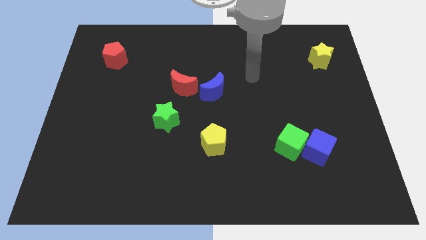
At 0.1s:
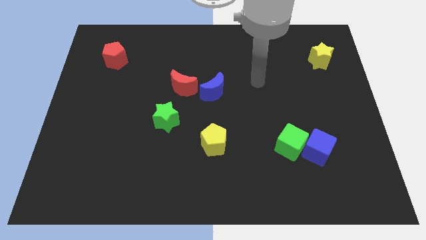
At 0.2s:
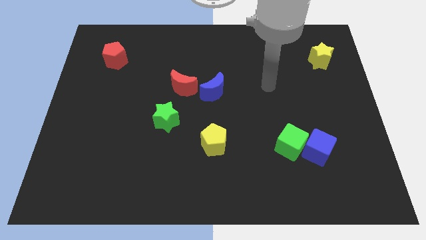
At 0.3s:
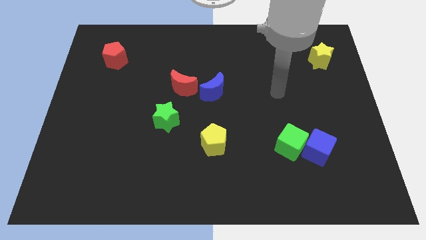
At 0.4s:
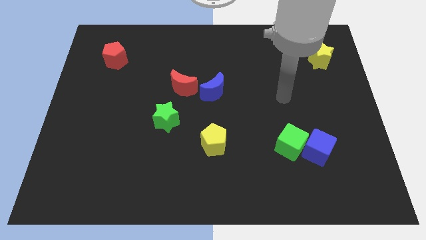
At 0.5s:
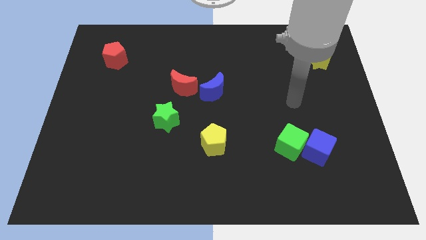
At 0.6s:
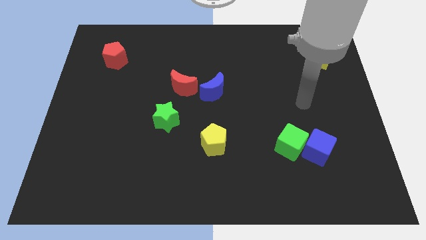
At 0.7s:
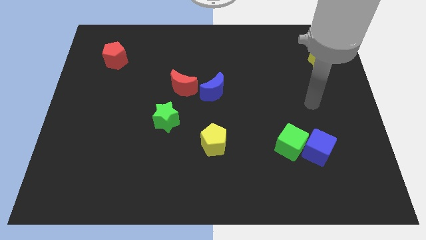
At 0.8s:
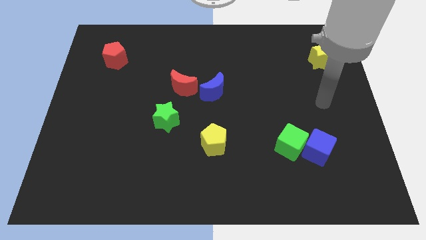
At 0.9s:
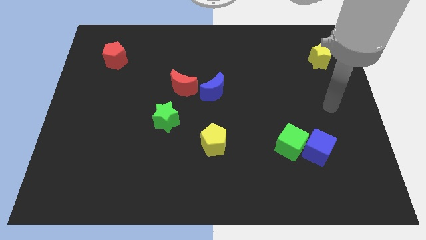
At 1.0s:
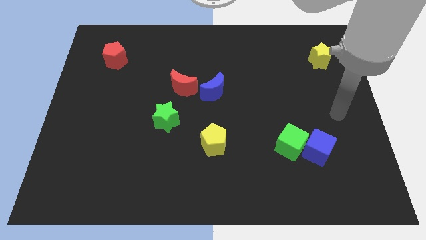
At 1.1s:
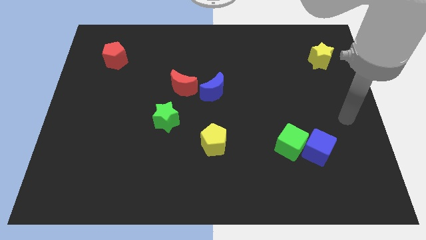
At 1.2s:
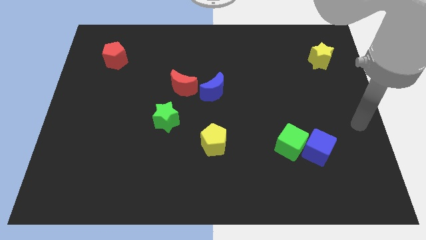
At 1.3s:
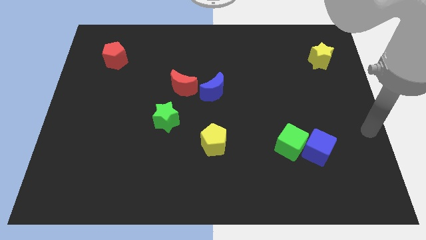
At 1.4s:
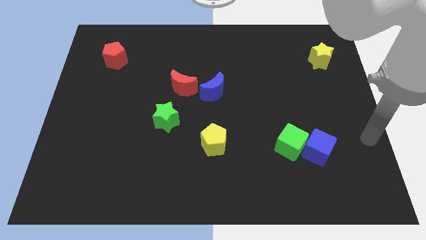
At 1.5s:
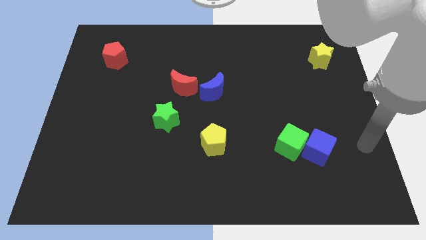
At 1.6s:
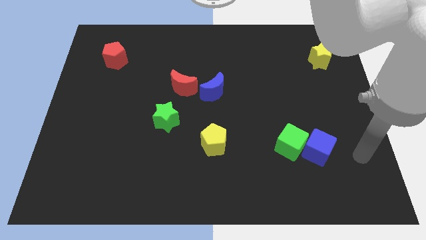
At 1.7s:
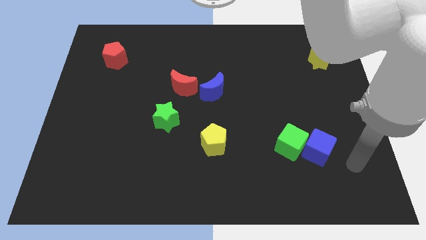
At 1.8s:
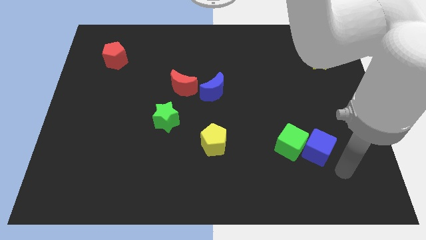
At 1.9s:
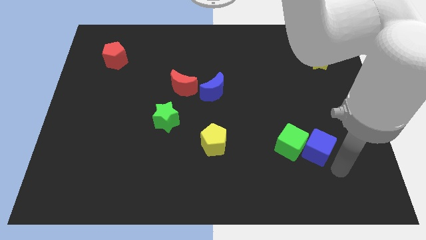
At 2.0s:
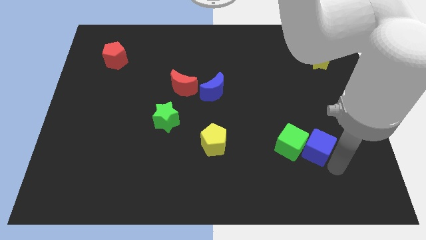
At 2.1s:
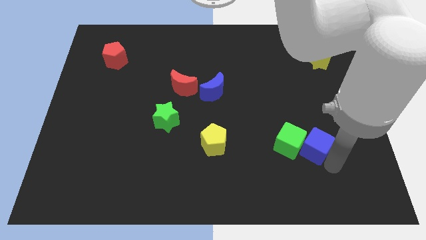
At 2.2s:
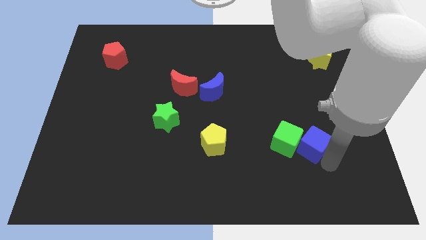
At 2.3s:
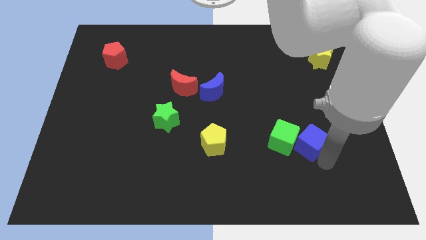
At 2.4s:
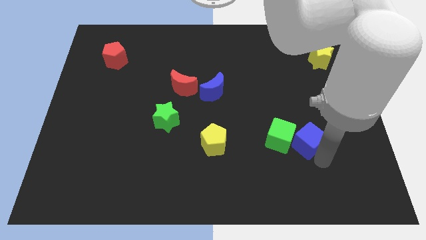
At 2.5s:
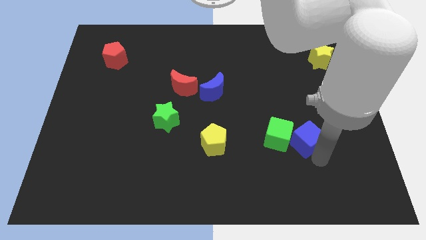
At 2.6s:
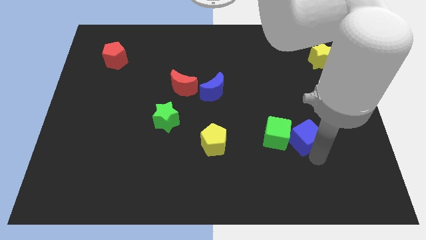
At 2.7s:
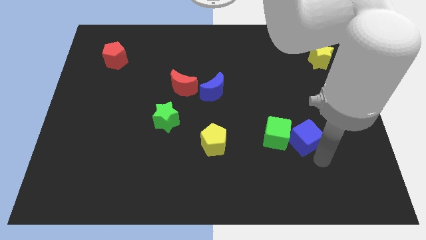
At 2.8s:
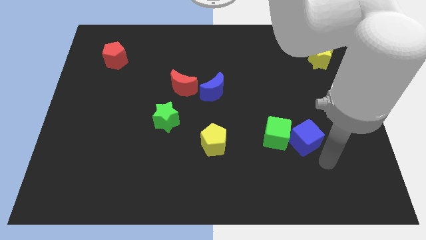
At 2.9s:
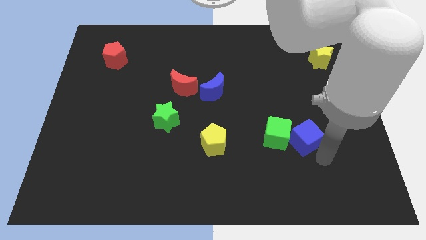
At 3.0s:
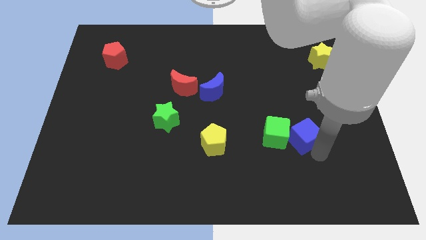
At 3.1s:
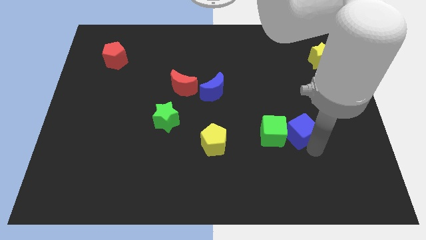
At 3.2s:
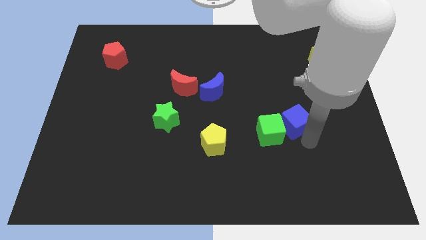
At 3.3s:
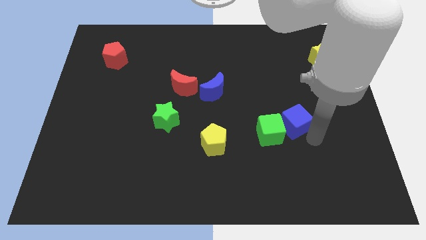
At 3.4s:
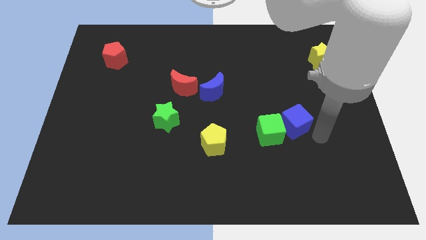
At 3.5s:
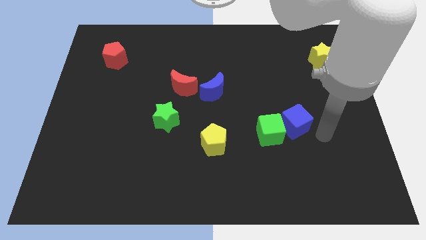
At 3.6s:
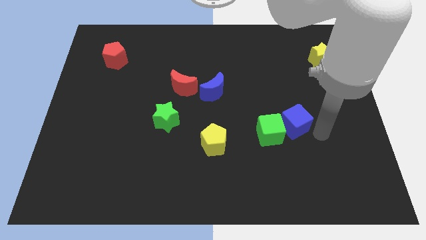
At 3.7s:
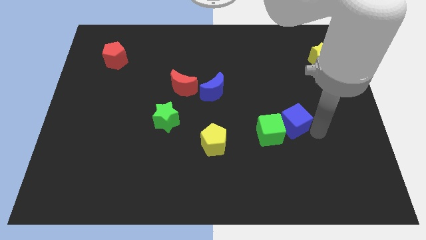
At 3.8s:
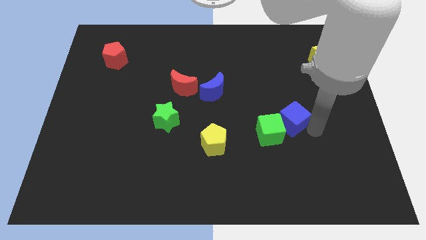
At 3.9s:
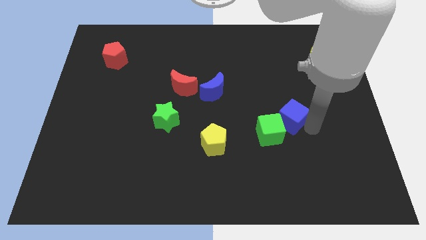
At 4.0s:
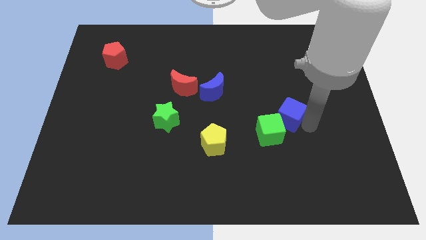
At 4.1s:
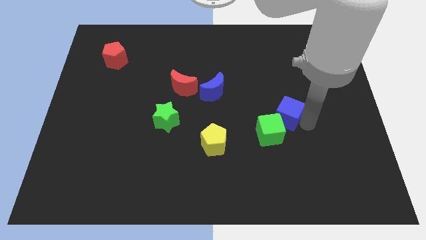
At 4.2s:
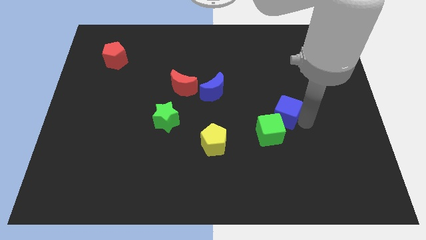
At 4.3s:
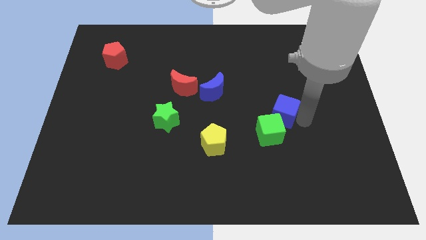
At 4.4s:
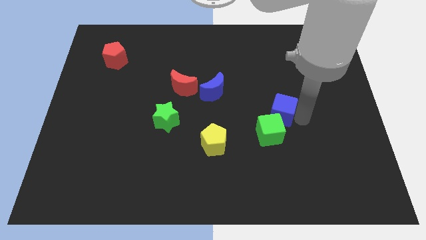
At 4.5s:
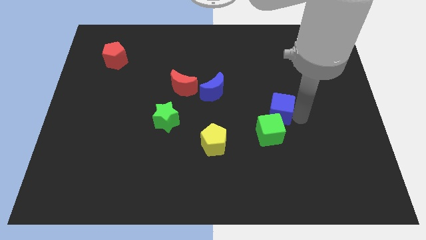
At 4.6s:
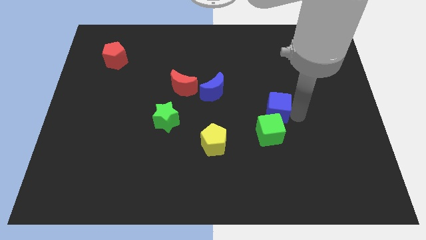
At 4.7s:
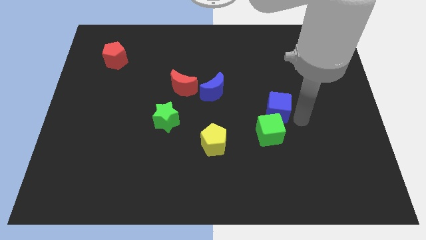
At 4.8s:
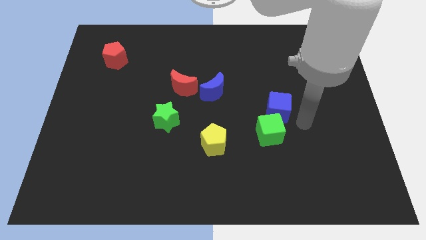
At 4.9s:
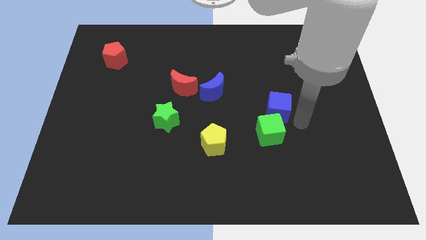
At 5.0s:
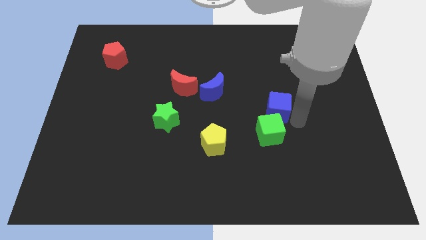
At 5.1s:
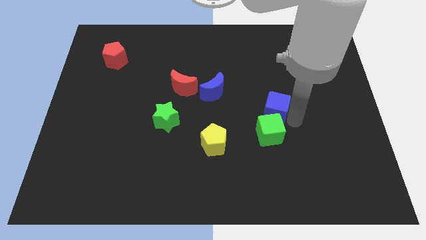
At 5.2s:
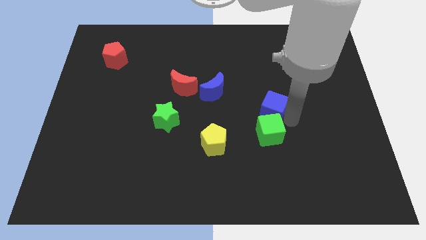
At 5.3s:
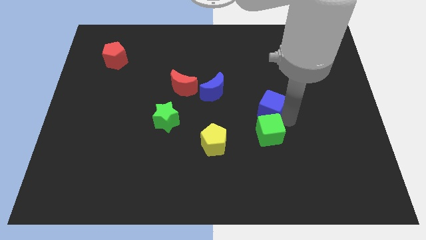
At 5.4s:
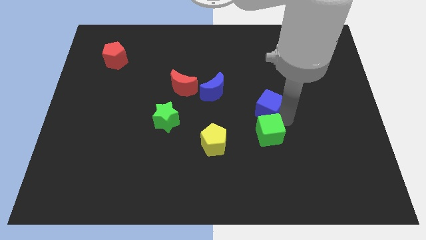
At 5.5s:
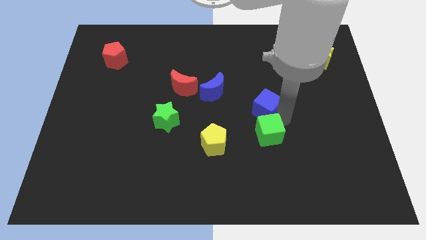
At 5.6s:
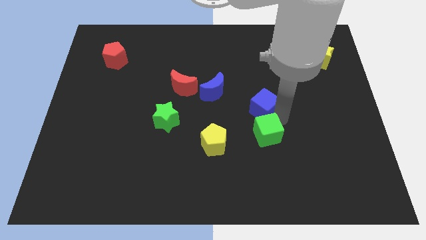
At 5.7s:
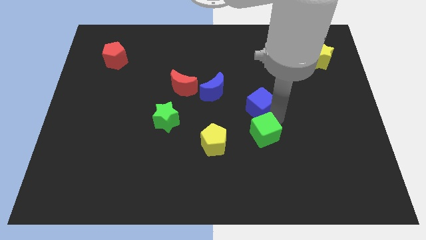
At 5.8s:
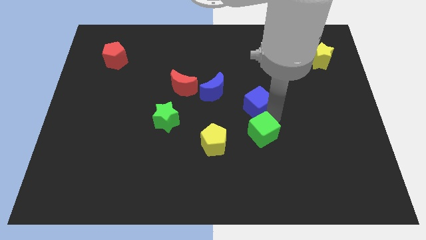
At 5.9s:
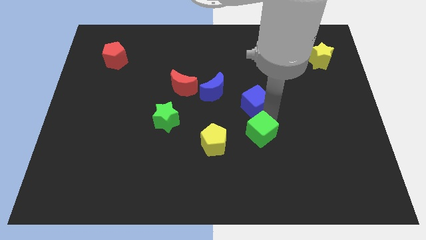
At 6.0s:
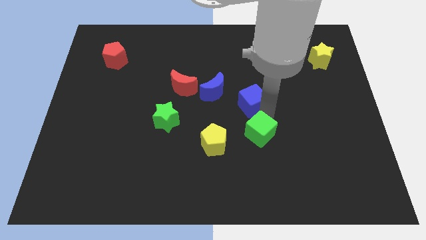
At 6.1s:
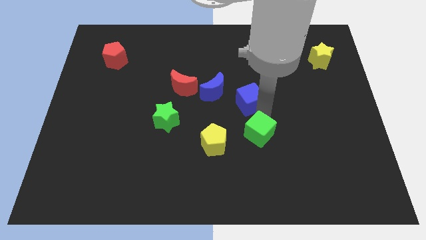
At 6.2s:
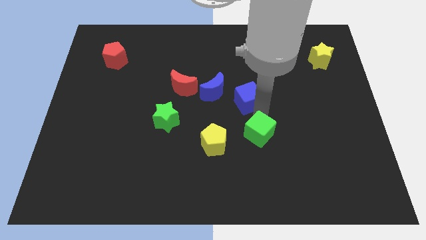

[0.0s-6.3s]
slide the blue cube up and then to the left

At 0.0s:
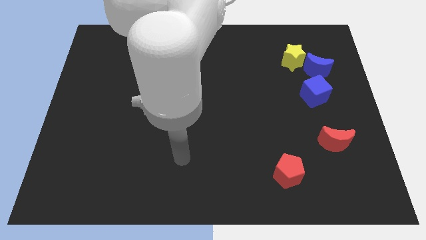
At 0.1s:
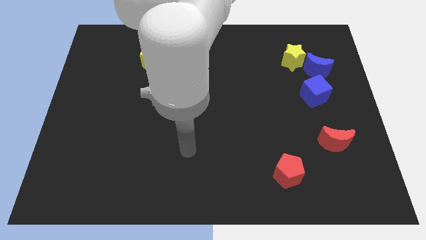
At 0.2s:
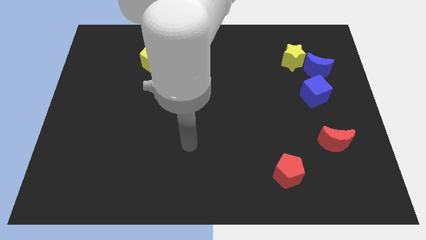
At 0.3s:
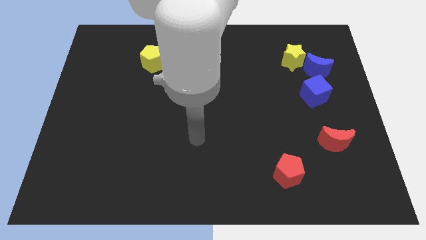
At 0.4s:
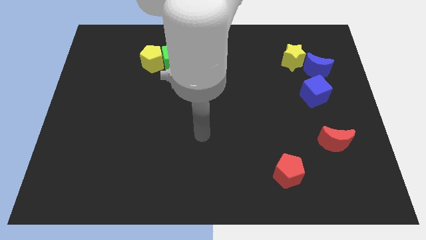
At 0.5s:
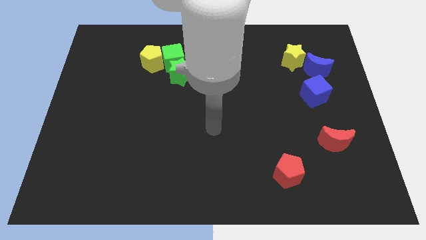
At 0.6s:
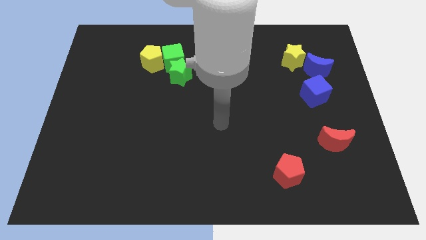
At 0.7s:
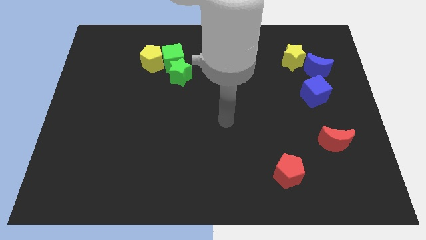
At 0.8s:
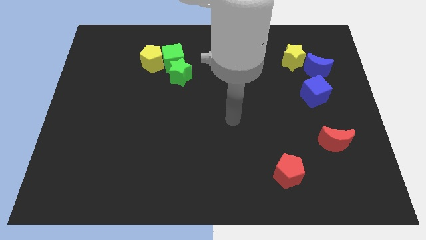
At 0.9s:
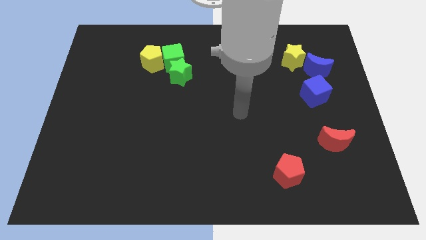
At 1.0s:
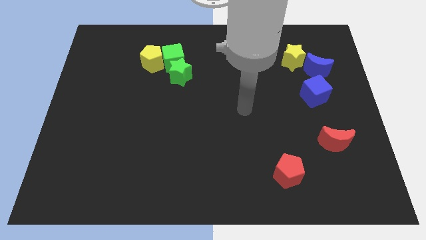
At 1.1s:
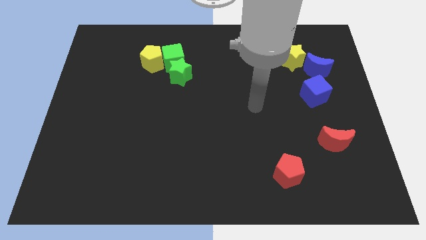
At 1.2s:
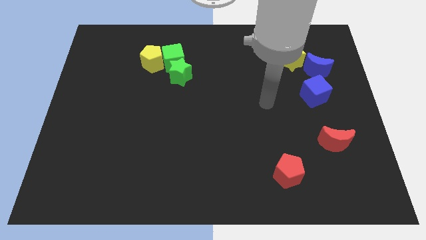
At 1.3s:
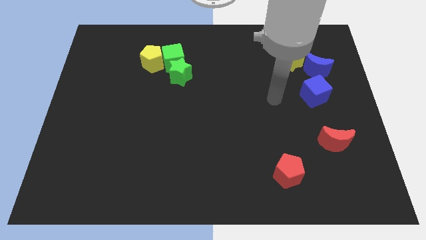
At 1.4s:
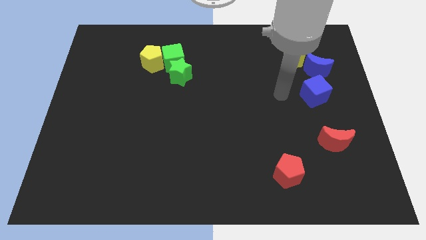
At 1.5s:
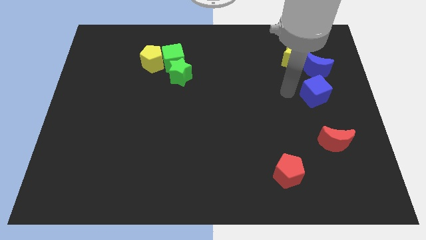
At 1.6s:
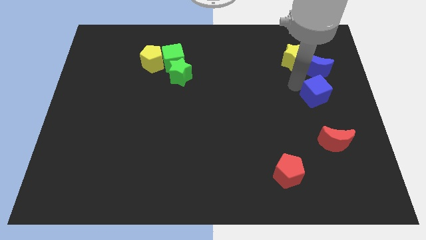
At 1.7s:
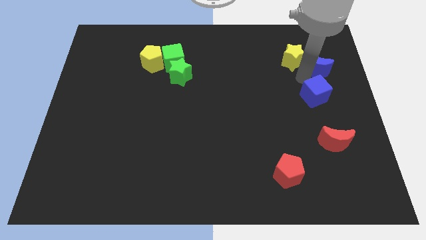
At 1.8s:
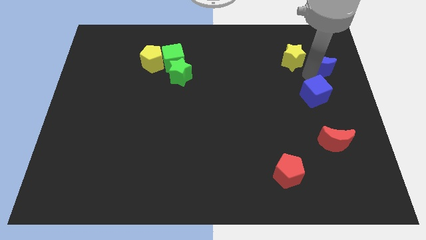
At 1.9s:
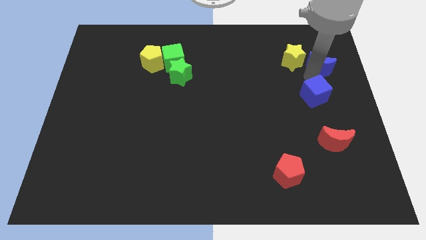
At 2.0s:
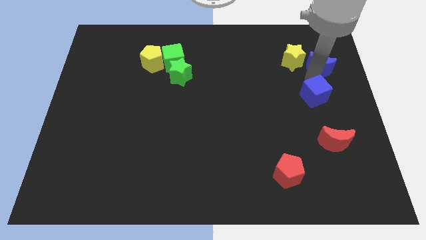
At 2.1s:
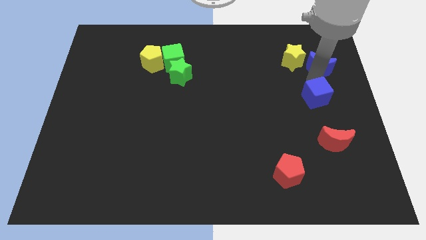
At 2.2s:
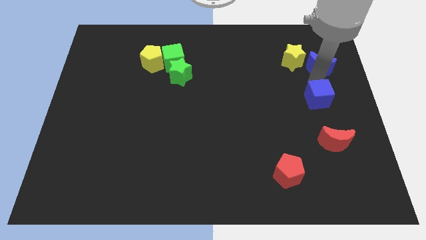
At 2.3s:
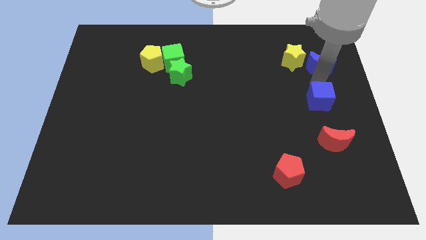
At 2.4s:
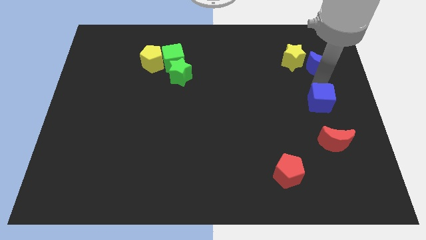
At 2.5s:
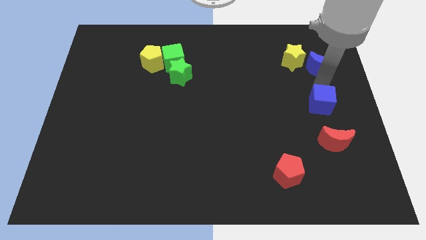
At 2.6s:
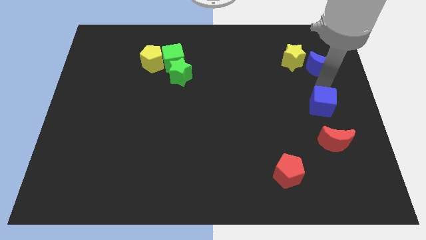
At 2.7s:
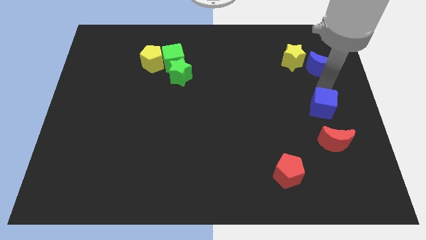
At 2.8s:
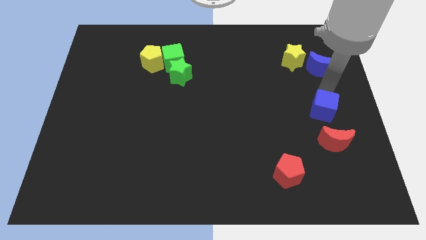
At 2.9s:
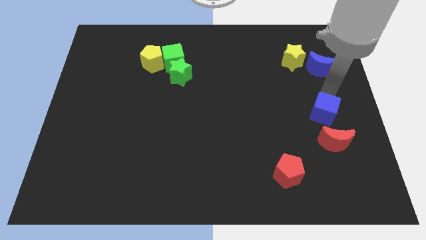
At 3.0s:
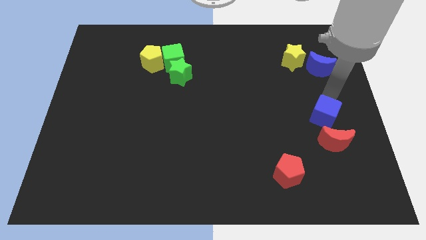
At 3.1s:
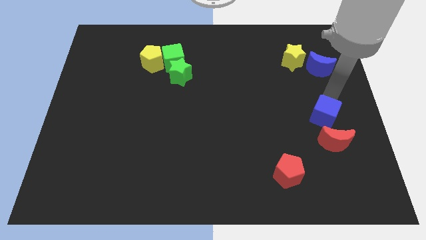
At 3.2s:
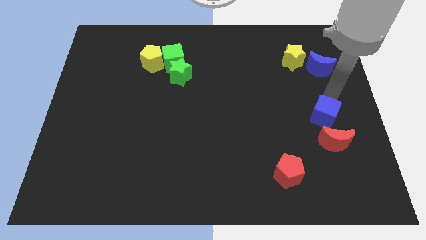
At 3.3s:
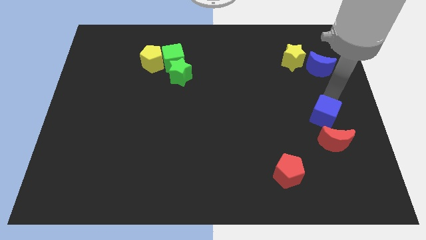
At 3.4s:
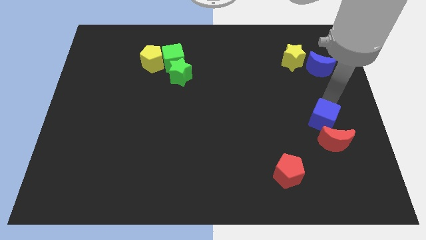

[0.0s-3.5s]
move the blue cube a little downwards
